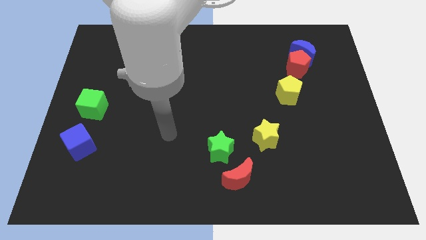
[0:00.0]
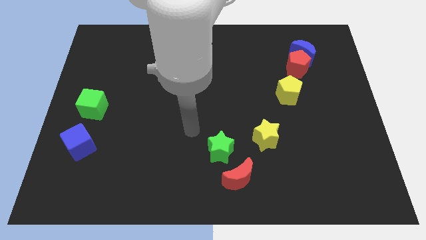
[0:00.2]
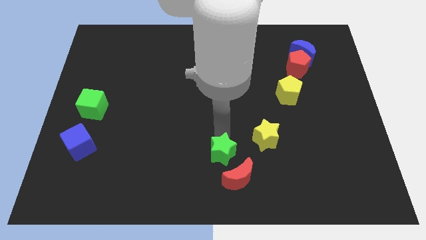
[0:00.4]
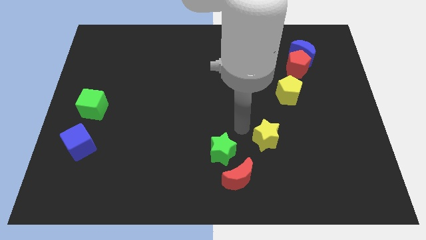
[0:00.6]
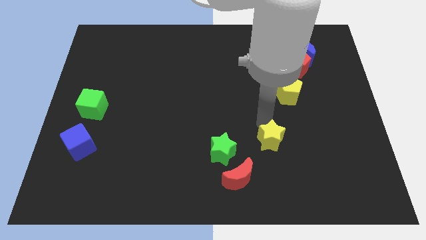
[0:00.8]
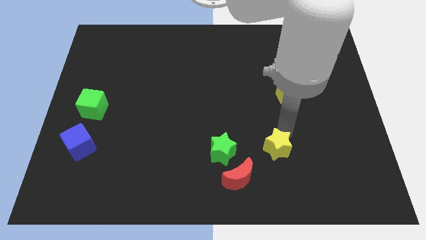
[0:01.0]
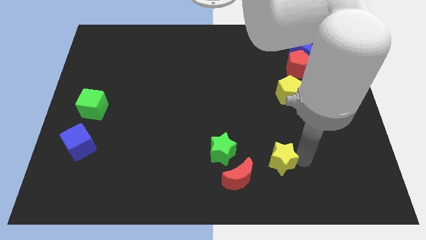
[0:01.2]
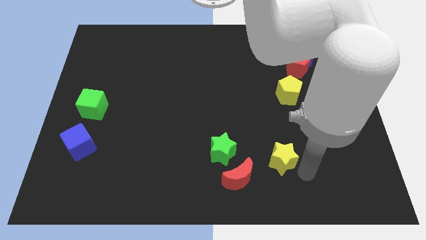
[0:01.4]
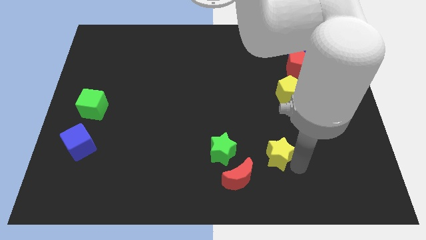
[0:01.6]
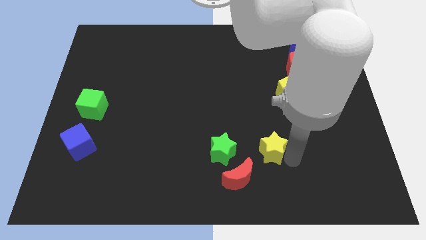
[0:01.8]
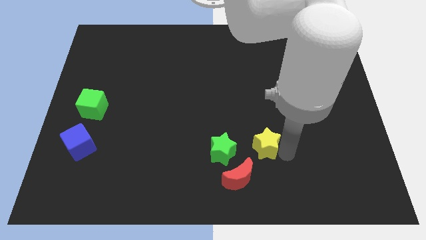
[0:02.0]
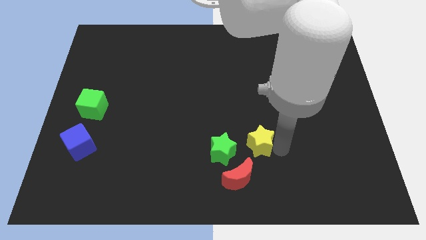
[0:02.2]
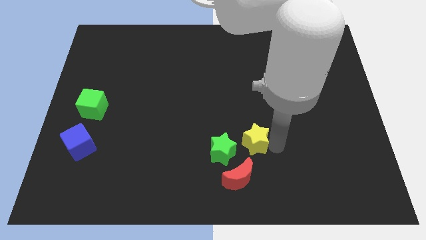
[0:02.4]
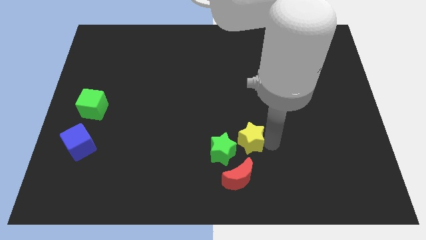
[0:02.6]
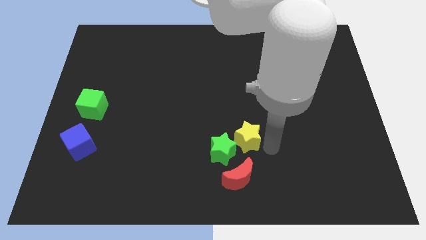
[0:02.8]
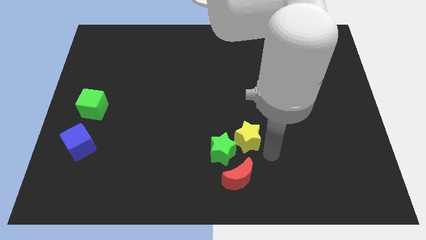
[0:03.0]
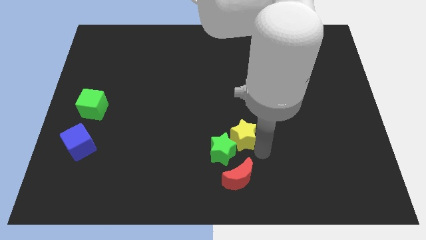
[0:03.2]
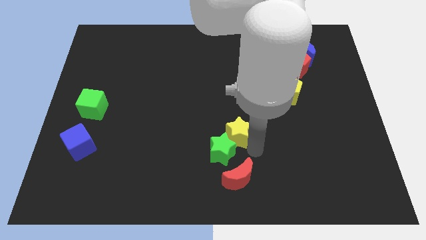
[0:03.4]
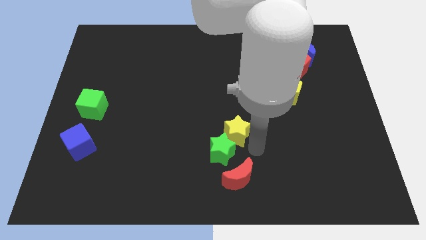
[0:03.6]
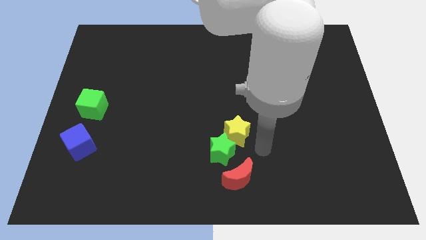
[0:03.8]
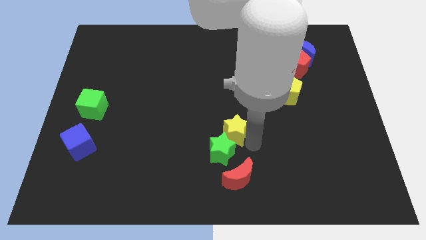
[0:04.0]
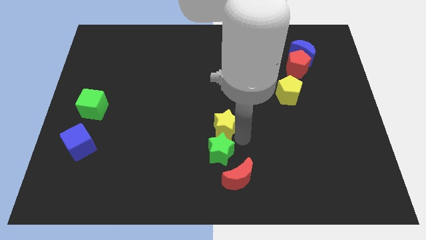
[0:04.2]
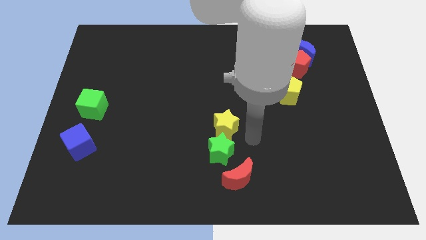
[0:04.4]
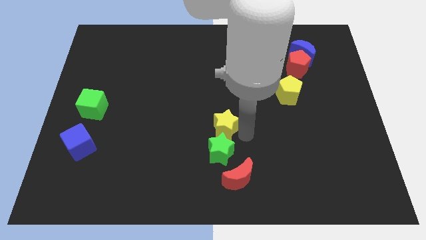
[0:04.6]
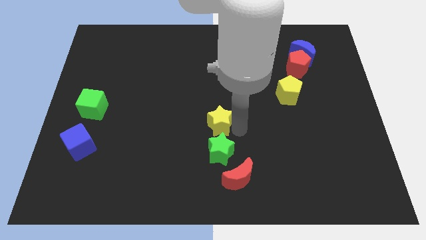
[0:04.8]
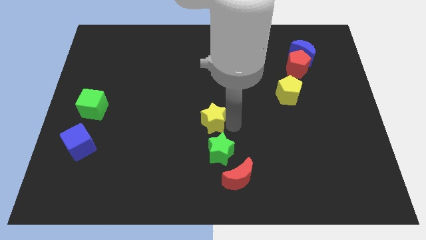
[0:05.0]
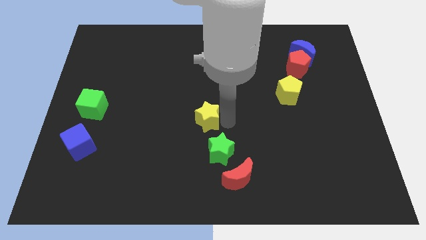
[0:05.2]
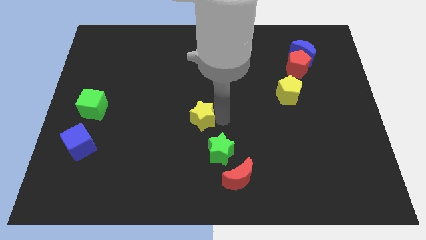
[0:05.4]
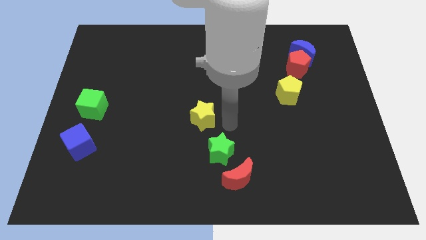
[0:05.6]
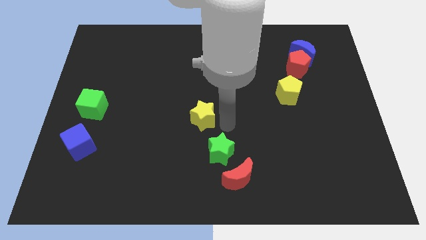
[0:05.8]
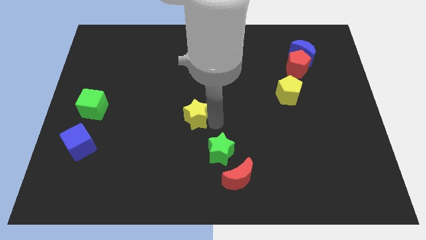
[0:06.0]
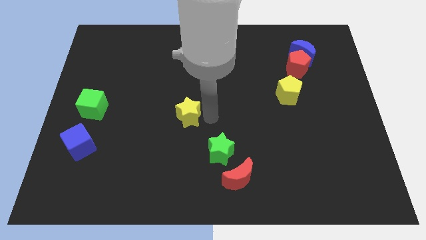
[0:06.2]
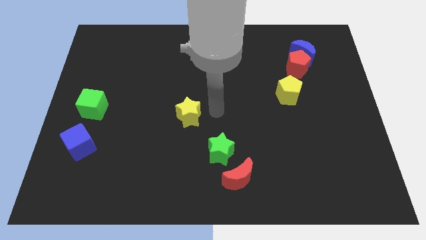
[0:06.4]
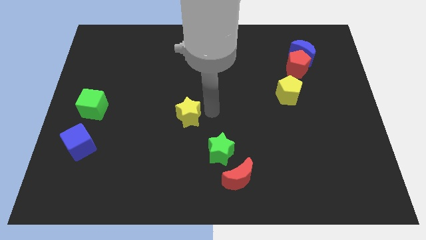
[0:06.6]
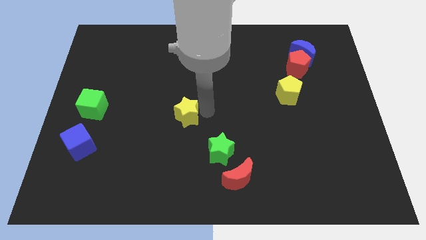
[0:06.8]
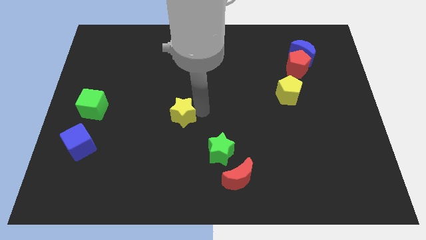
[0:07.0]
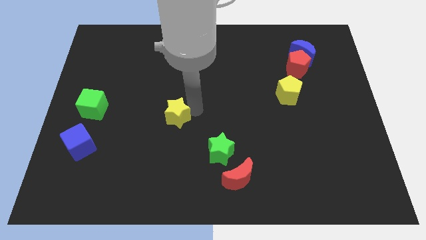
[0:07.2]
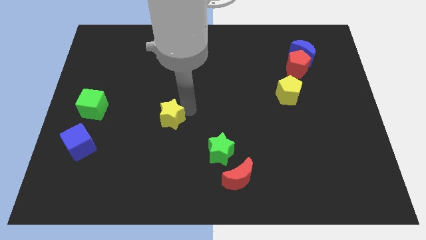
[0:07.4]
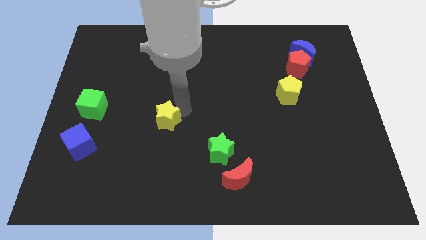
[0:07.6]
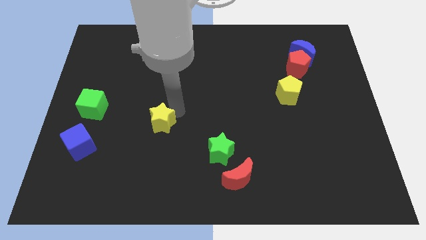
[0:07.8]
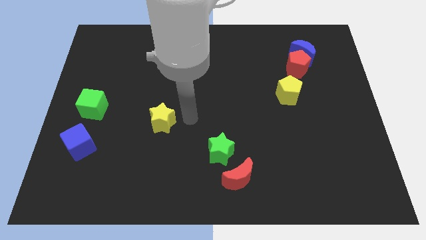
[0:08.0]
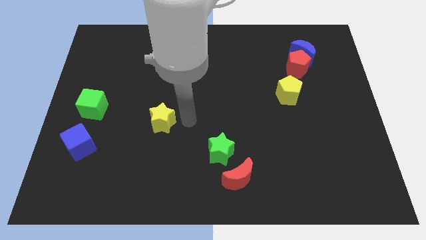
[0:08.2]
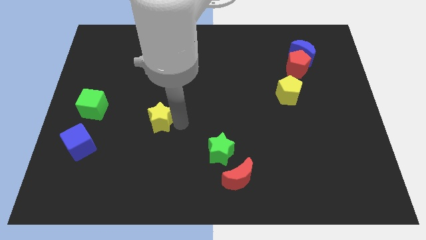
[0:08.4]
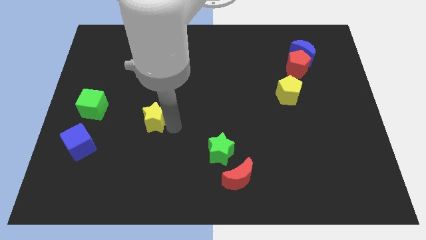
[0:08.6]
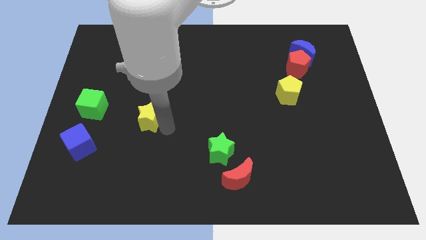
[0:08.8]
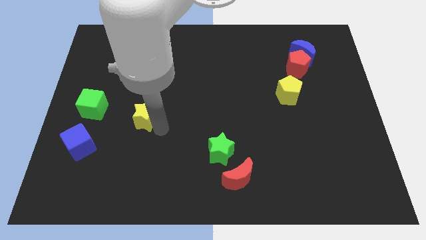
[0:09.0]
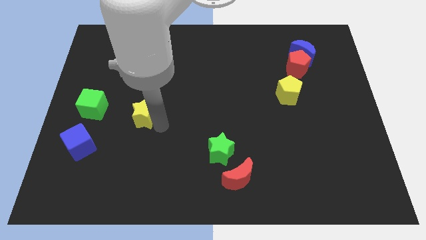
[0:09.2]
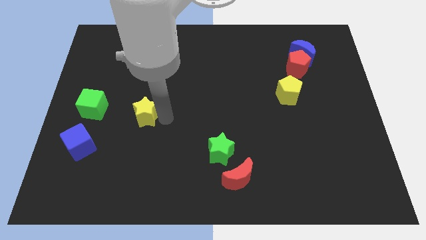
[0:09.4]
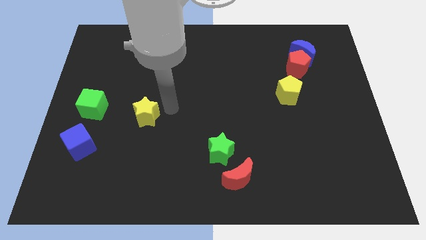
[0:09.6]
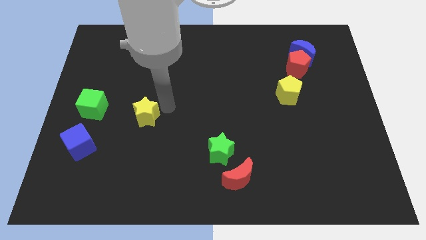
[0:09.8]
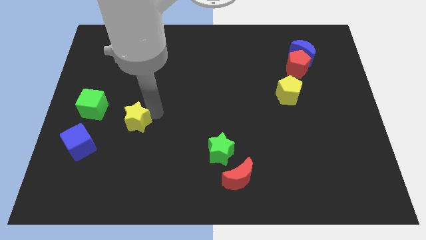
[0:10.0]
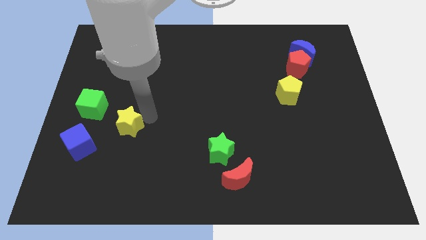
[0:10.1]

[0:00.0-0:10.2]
slide the yellow star diagonally up and to the right of the blue cube
